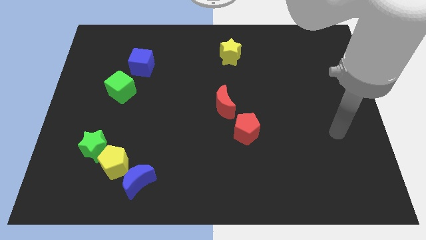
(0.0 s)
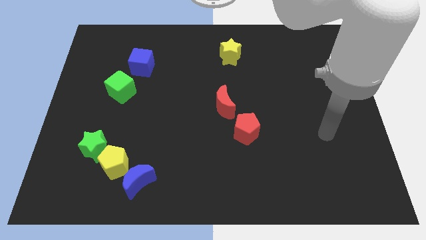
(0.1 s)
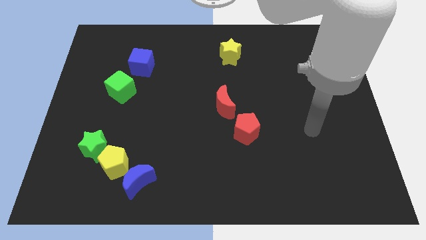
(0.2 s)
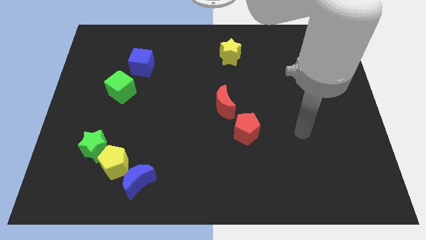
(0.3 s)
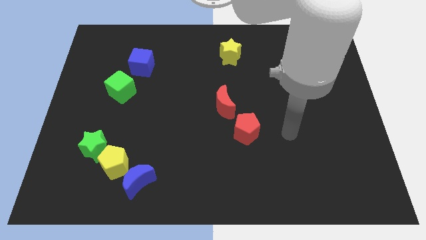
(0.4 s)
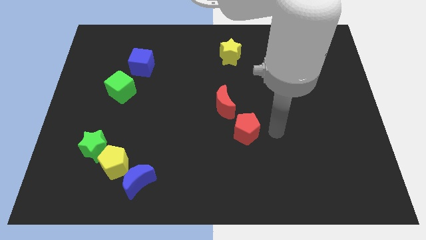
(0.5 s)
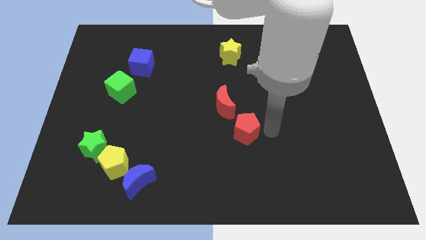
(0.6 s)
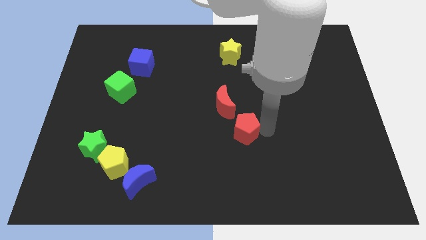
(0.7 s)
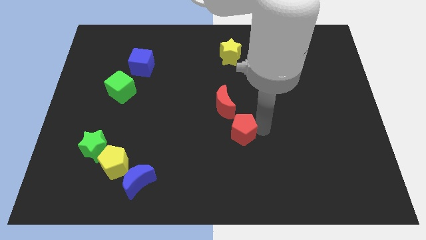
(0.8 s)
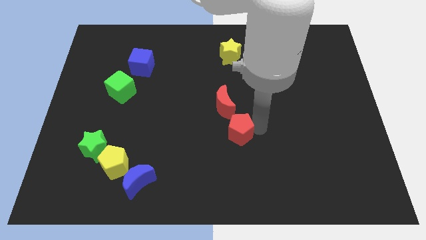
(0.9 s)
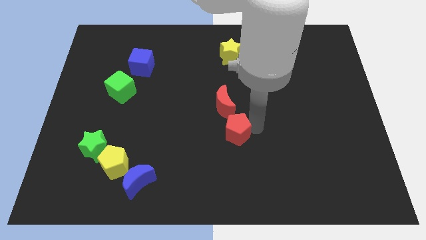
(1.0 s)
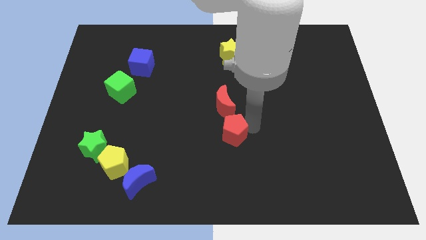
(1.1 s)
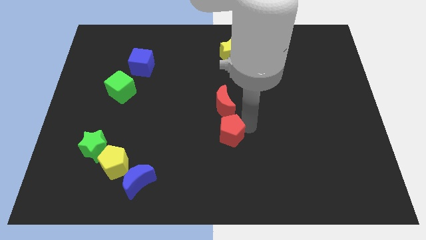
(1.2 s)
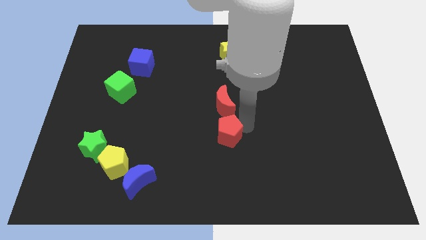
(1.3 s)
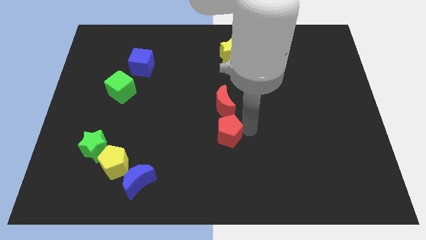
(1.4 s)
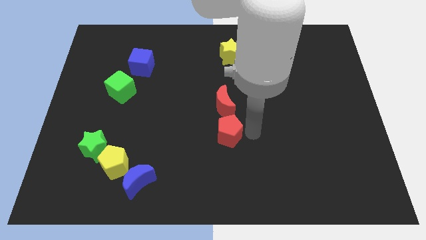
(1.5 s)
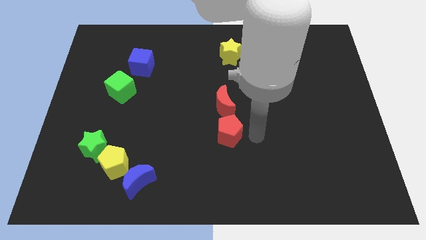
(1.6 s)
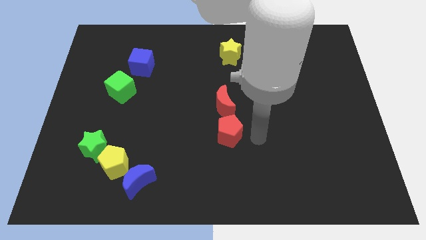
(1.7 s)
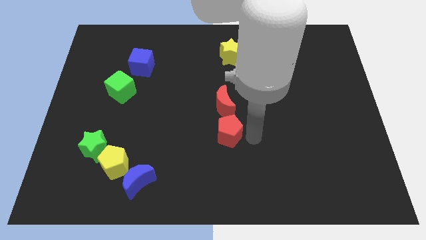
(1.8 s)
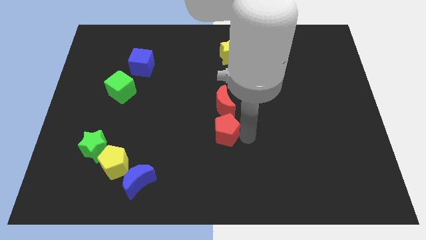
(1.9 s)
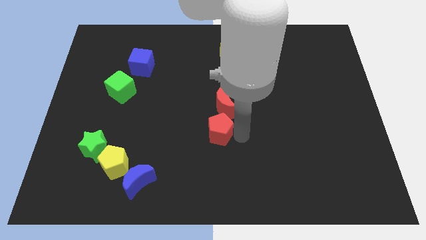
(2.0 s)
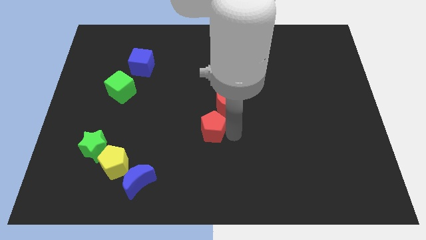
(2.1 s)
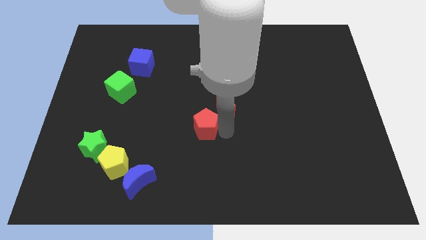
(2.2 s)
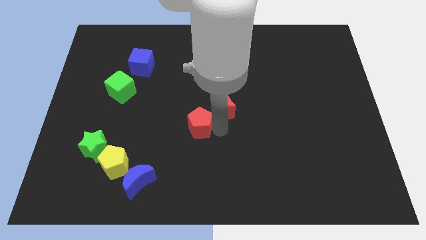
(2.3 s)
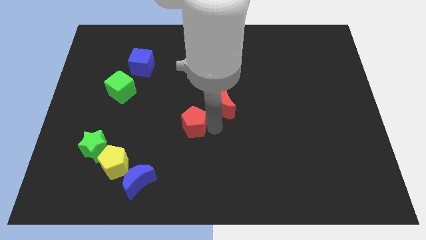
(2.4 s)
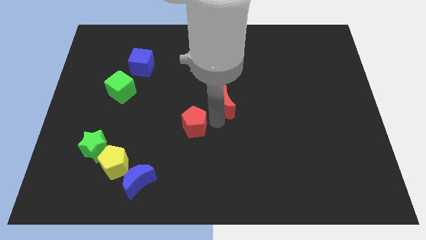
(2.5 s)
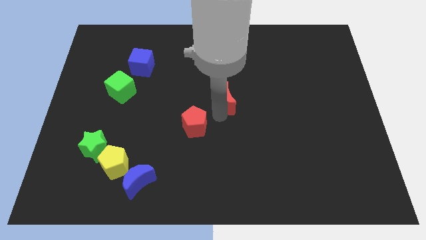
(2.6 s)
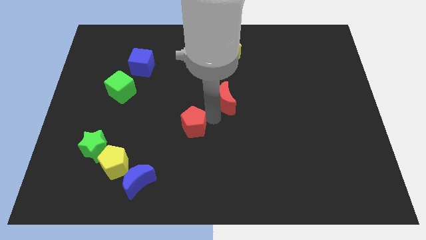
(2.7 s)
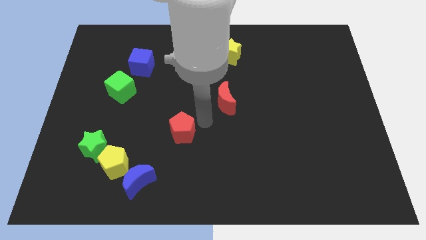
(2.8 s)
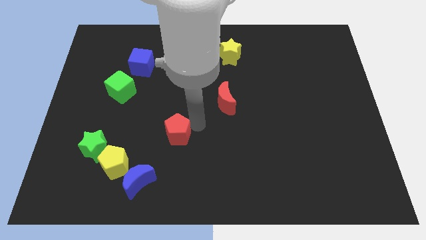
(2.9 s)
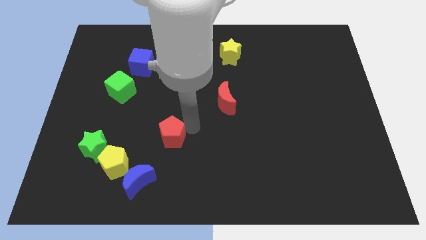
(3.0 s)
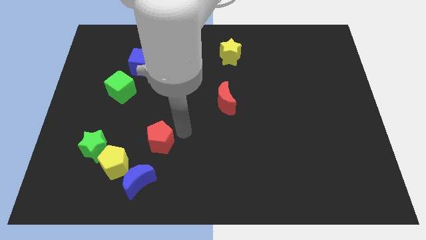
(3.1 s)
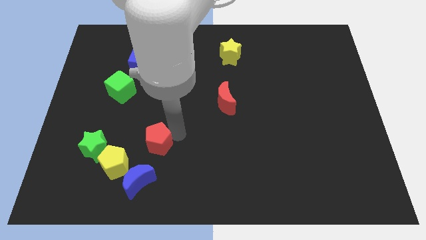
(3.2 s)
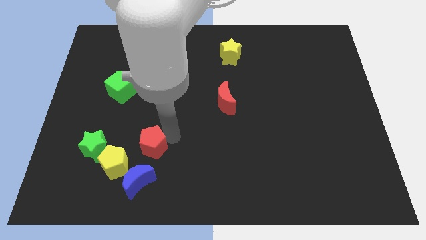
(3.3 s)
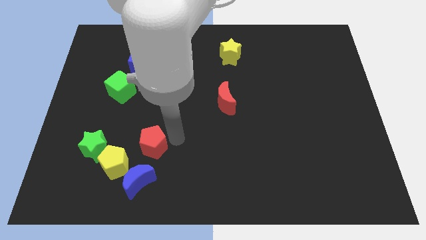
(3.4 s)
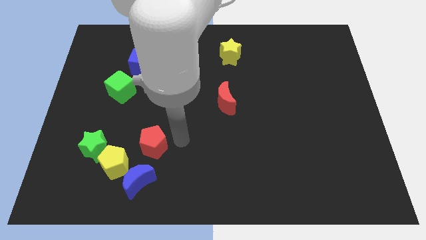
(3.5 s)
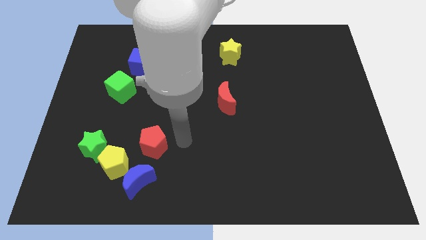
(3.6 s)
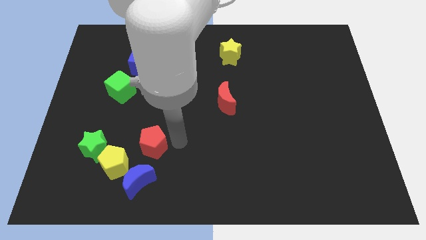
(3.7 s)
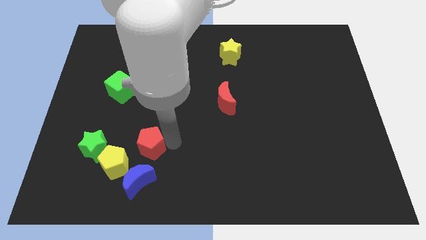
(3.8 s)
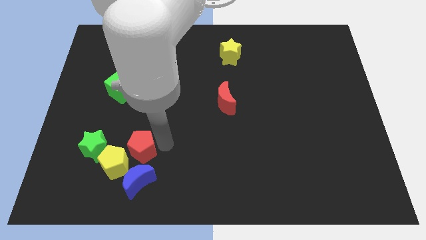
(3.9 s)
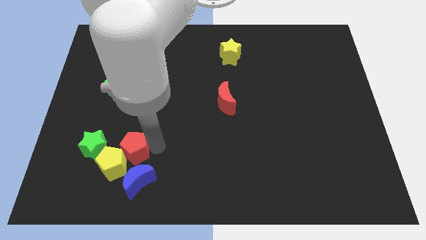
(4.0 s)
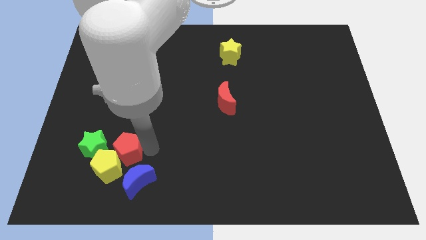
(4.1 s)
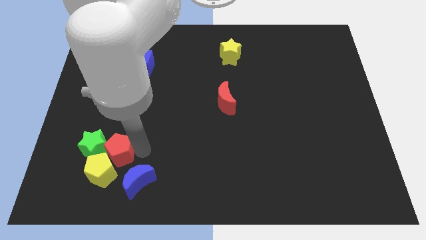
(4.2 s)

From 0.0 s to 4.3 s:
move the red pentagon towards the green star

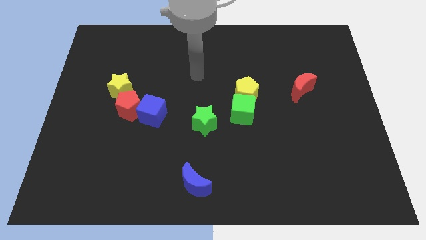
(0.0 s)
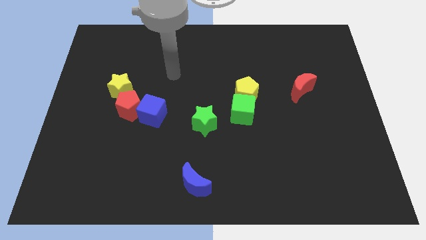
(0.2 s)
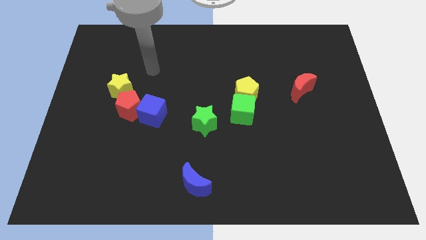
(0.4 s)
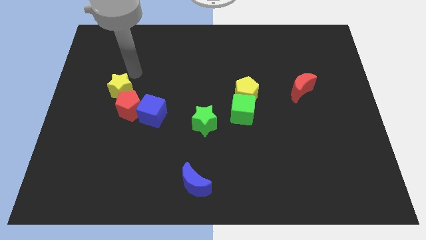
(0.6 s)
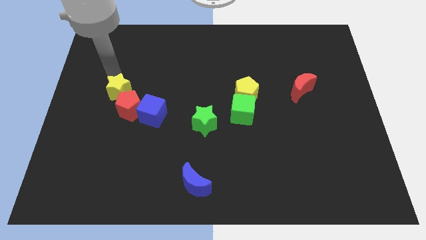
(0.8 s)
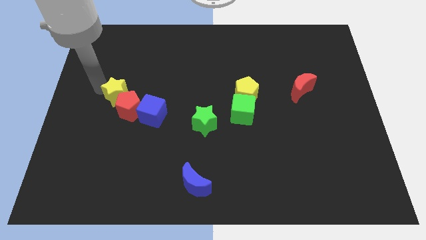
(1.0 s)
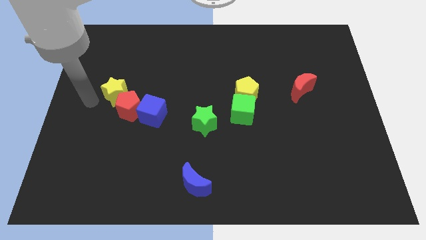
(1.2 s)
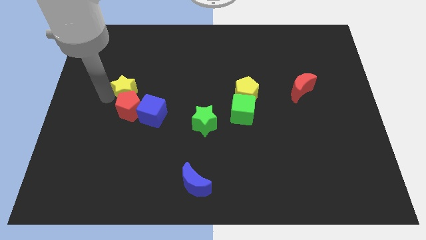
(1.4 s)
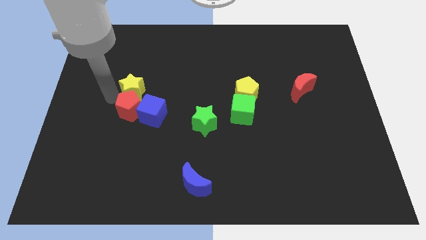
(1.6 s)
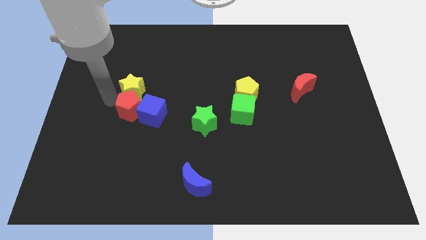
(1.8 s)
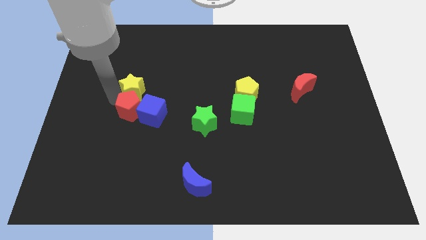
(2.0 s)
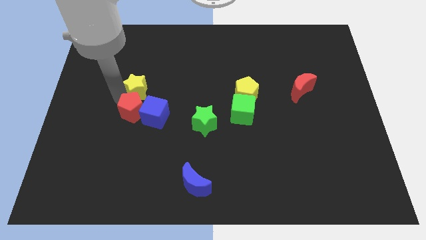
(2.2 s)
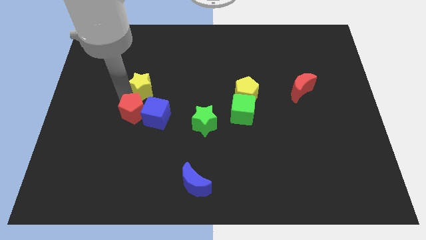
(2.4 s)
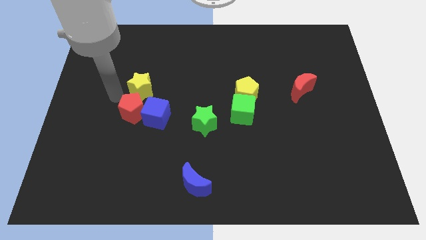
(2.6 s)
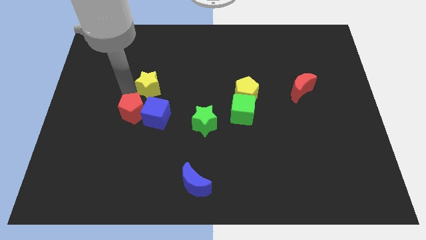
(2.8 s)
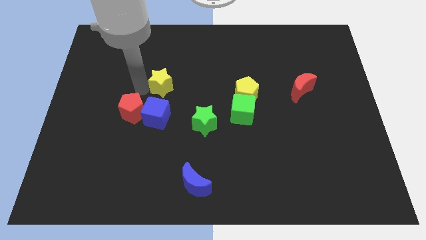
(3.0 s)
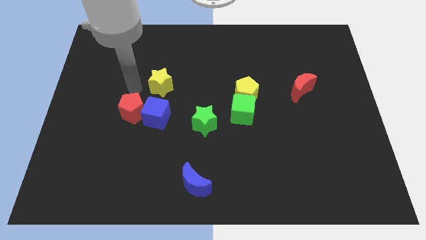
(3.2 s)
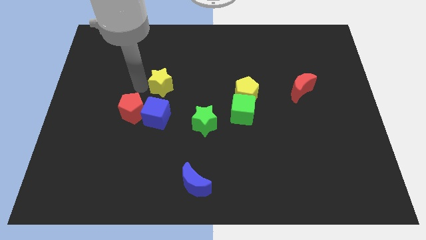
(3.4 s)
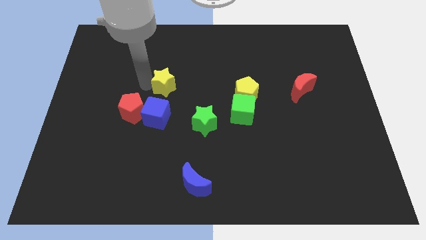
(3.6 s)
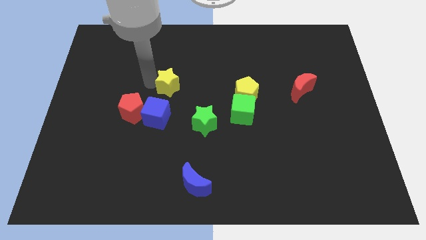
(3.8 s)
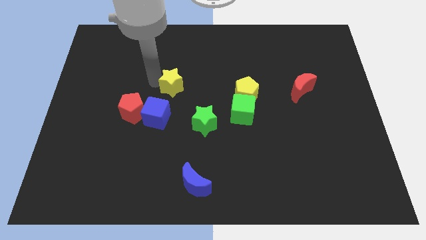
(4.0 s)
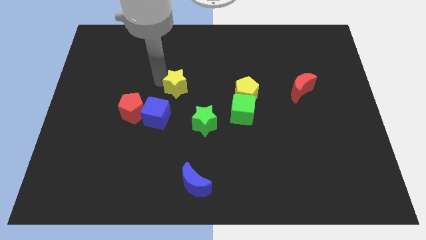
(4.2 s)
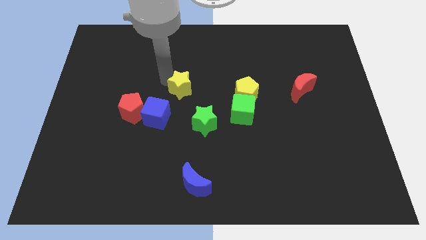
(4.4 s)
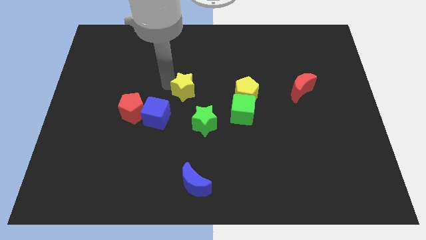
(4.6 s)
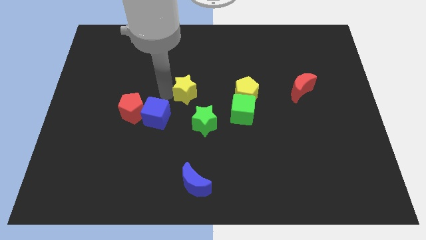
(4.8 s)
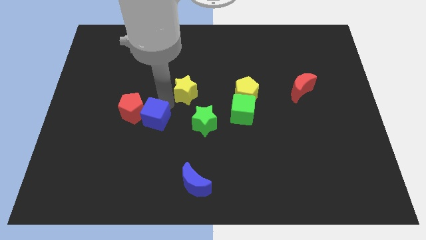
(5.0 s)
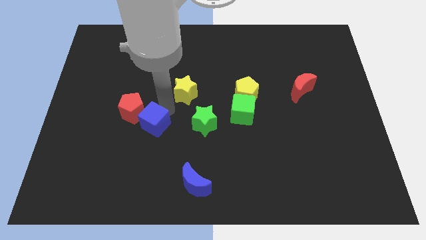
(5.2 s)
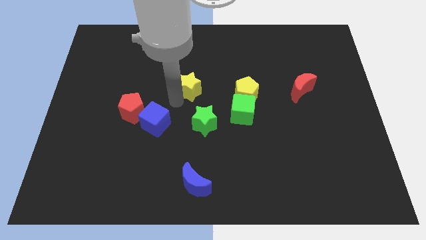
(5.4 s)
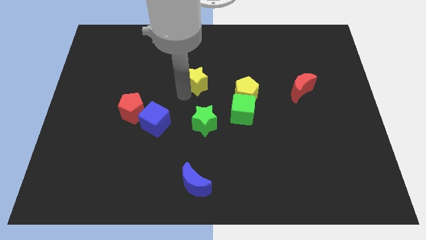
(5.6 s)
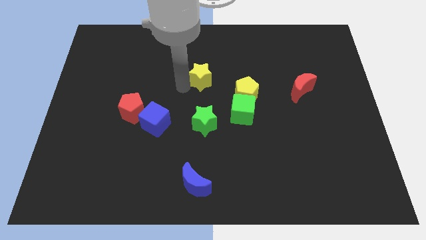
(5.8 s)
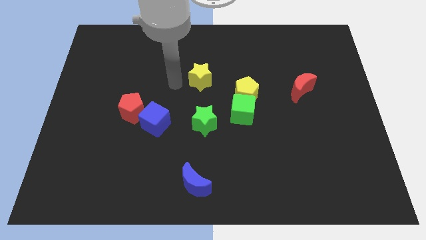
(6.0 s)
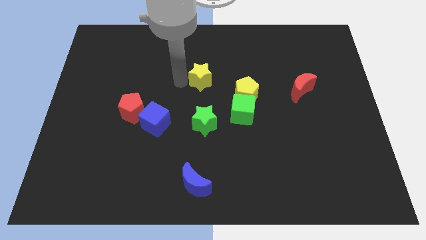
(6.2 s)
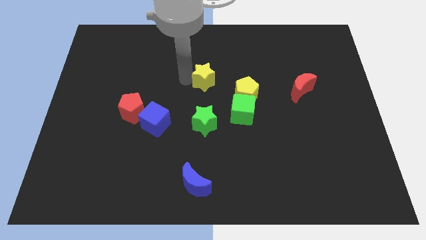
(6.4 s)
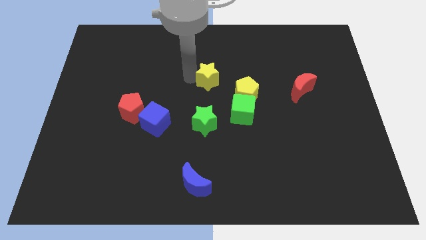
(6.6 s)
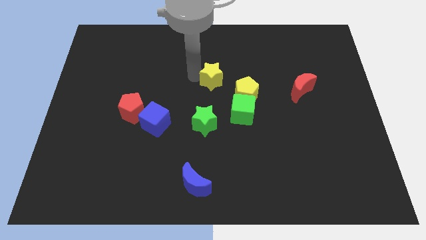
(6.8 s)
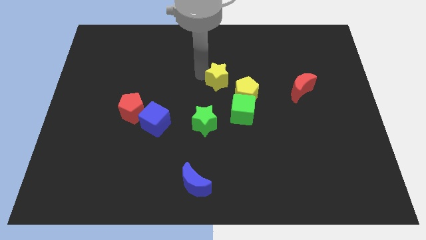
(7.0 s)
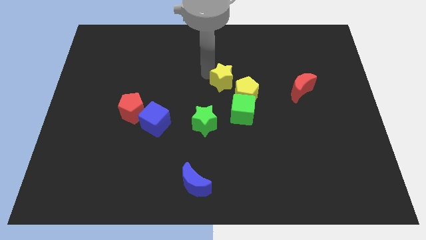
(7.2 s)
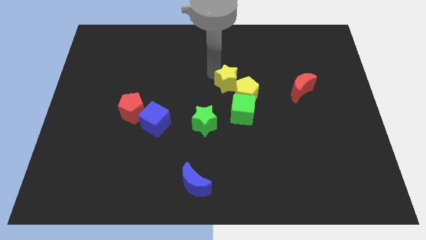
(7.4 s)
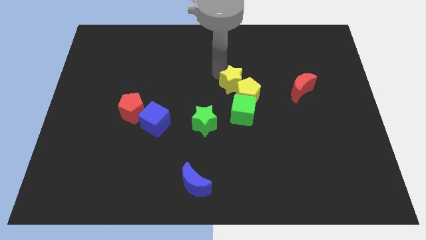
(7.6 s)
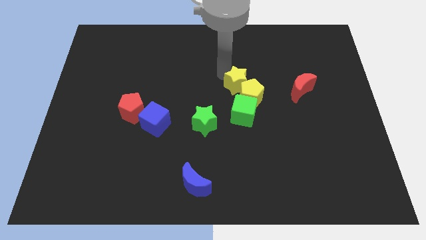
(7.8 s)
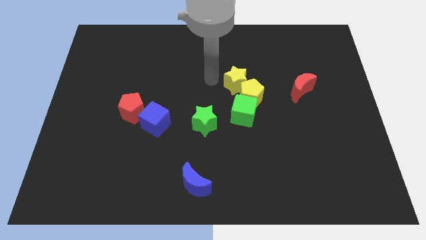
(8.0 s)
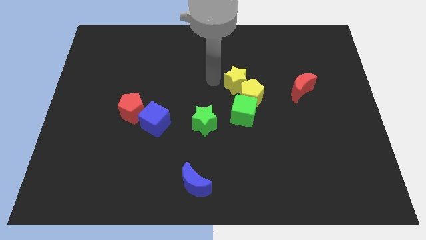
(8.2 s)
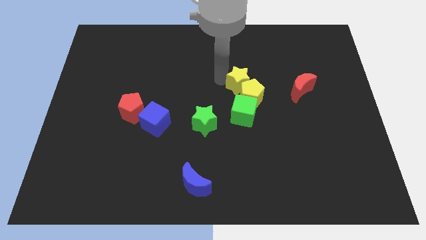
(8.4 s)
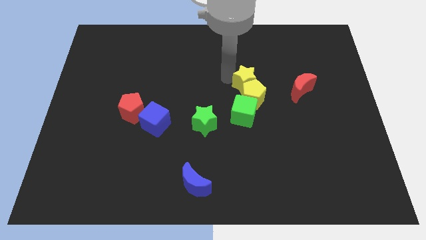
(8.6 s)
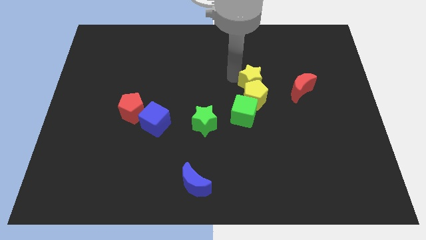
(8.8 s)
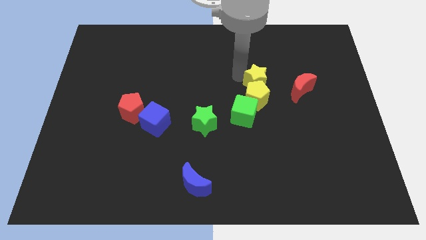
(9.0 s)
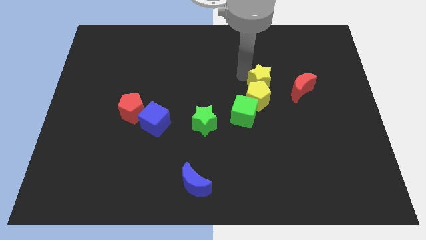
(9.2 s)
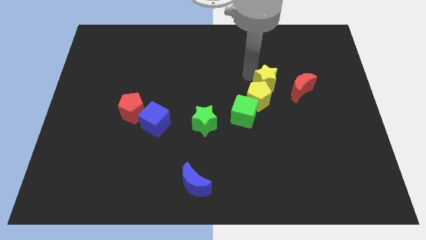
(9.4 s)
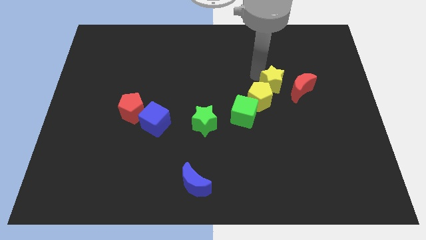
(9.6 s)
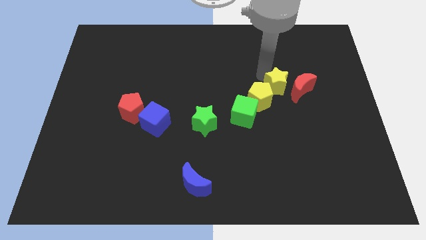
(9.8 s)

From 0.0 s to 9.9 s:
put the yellow star to the red moon
